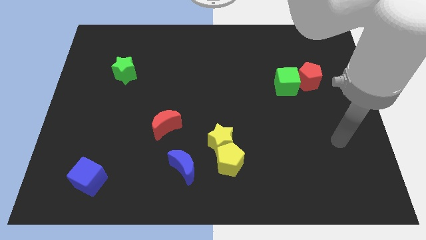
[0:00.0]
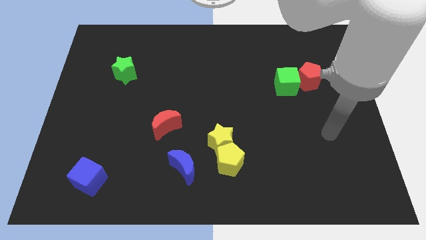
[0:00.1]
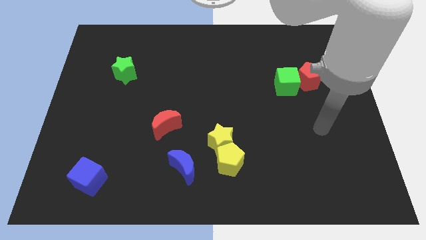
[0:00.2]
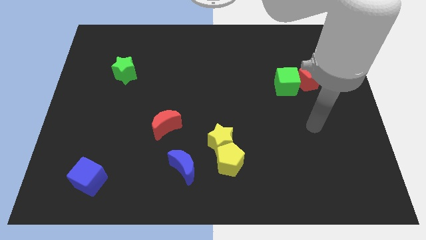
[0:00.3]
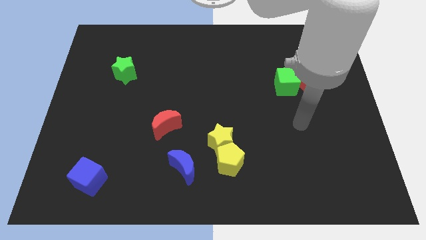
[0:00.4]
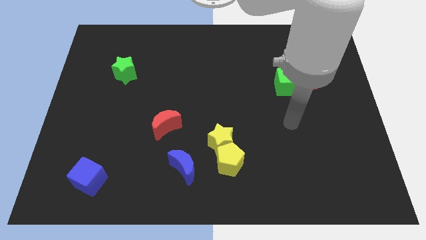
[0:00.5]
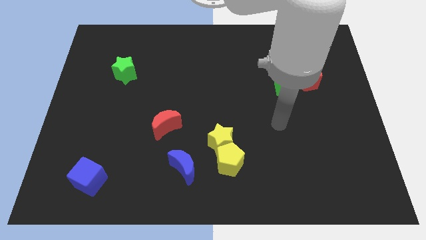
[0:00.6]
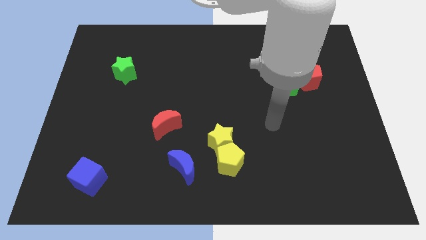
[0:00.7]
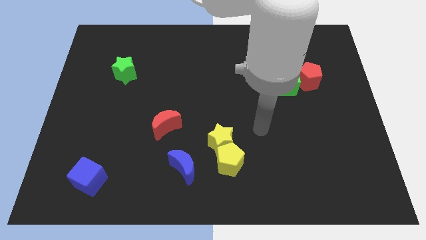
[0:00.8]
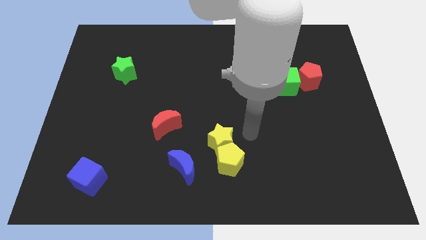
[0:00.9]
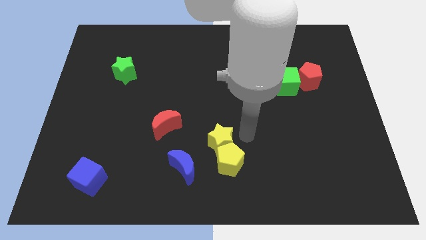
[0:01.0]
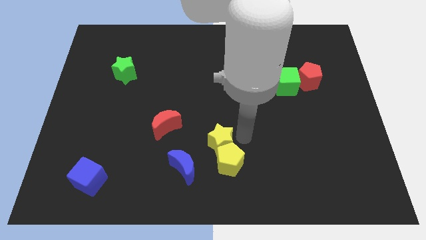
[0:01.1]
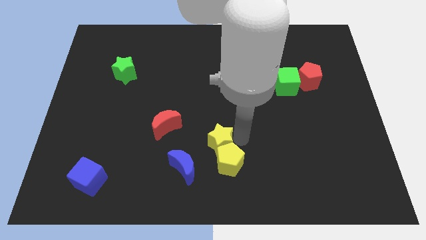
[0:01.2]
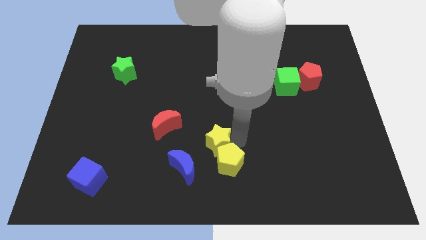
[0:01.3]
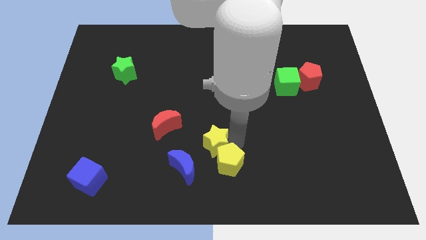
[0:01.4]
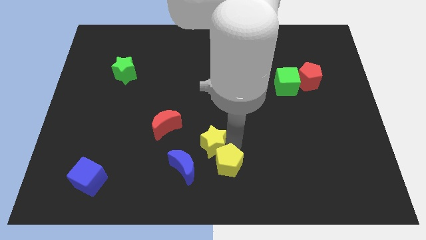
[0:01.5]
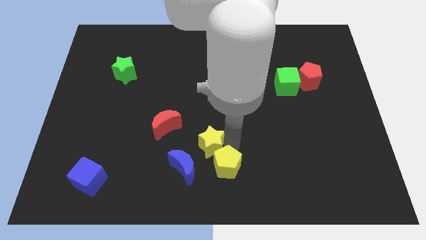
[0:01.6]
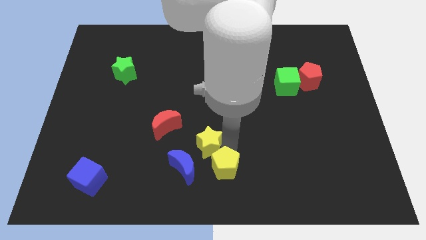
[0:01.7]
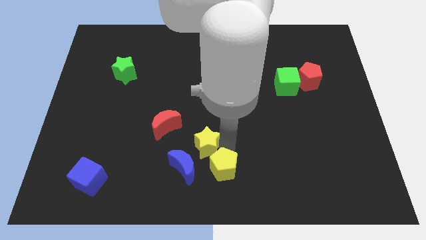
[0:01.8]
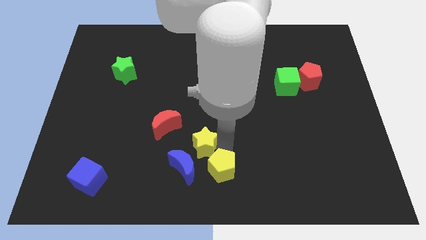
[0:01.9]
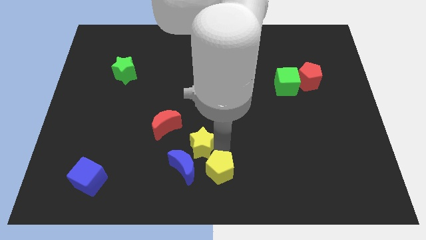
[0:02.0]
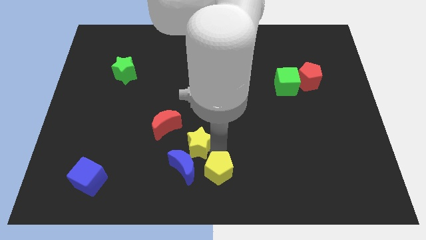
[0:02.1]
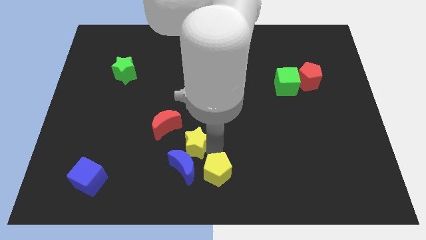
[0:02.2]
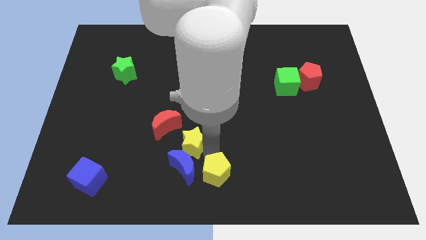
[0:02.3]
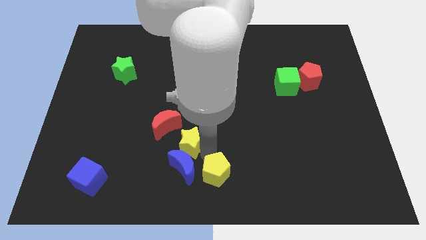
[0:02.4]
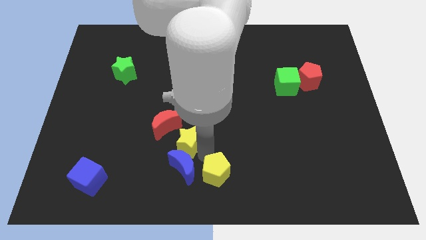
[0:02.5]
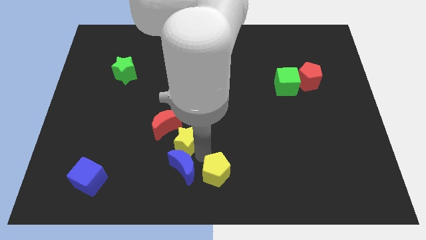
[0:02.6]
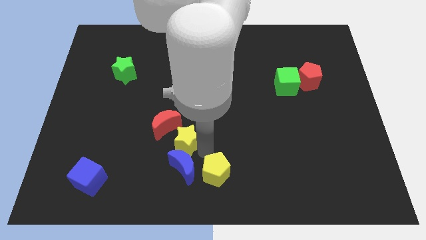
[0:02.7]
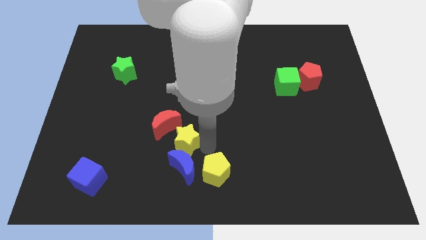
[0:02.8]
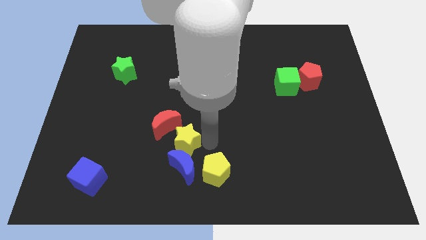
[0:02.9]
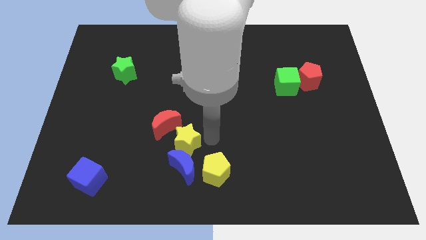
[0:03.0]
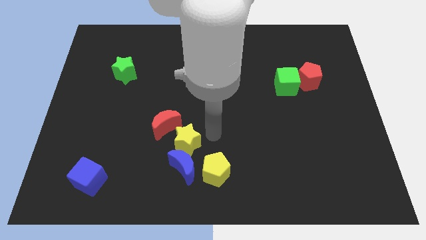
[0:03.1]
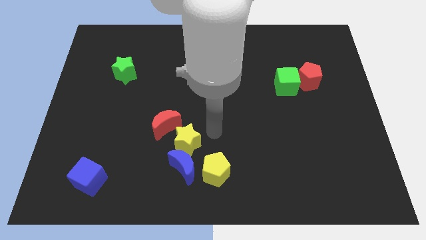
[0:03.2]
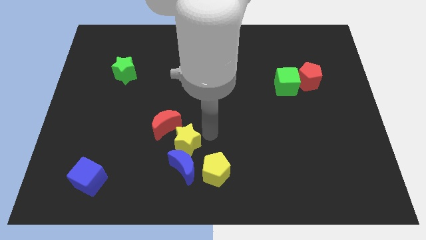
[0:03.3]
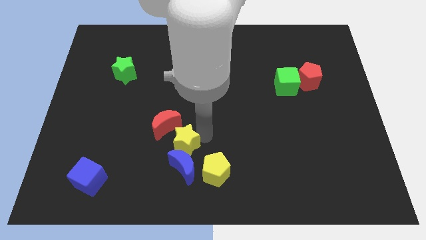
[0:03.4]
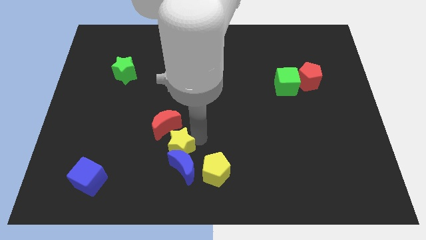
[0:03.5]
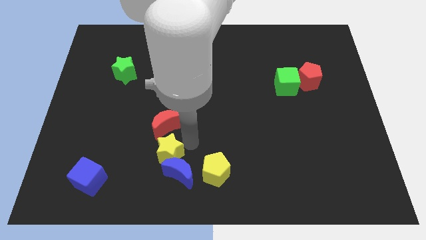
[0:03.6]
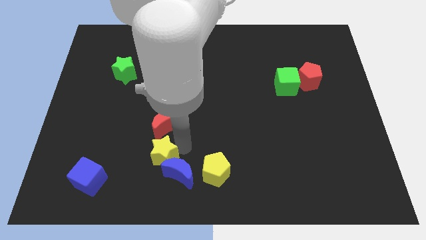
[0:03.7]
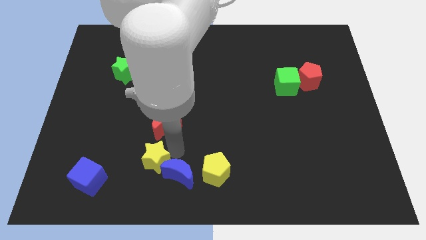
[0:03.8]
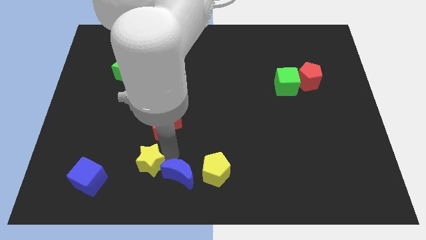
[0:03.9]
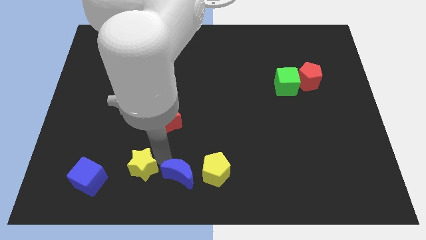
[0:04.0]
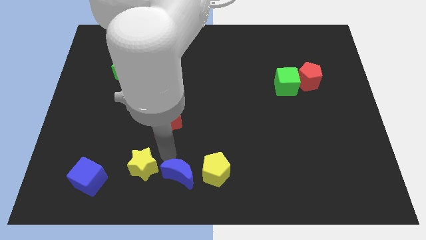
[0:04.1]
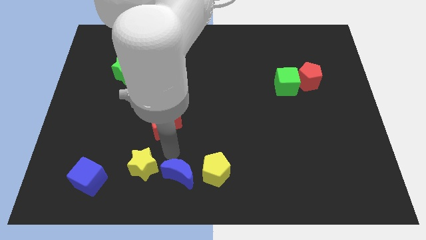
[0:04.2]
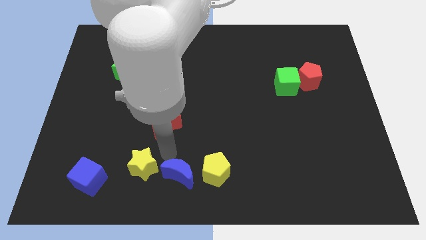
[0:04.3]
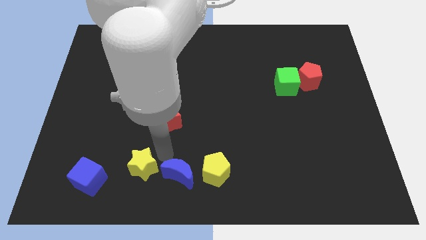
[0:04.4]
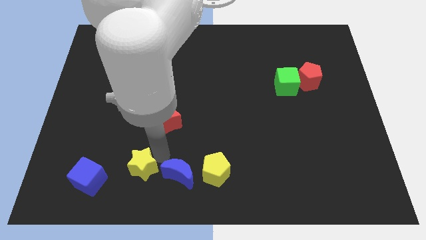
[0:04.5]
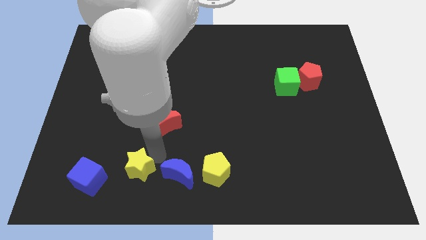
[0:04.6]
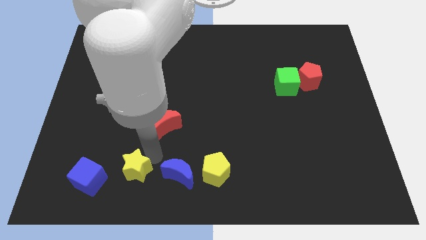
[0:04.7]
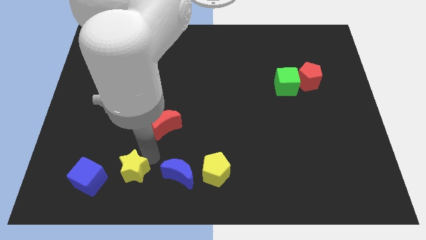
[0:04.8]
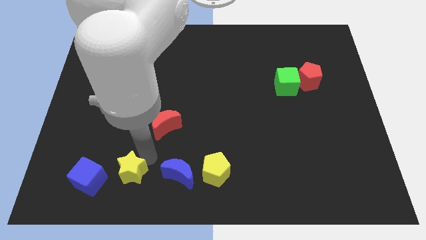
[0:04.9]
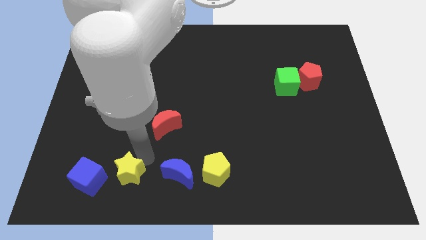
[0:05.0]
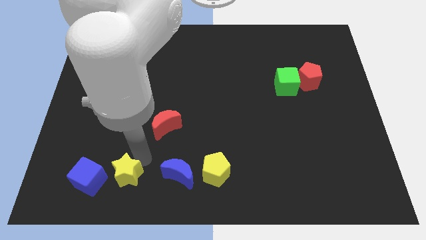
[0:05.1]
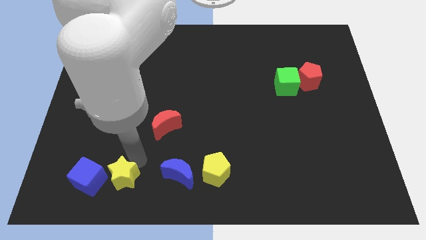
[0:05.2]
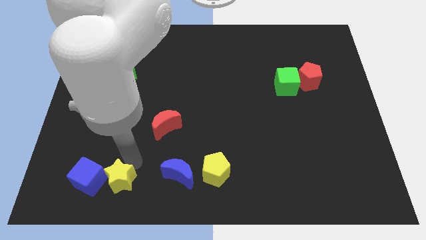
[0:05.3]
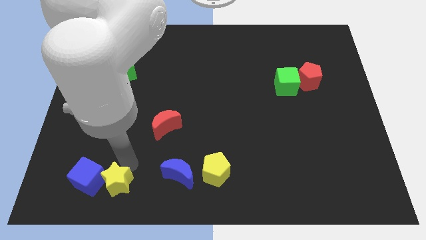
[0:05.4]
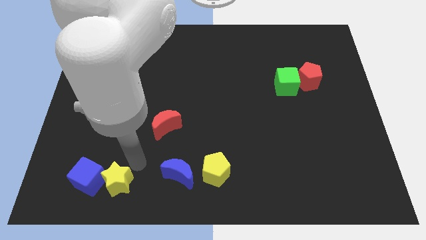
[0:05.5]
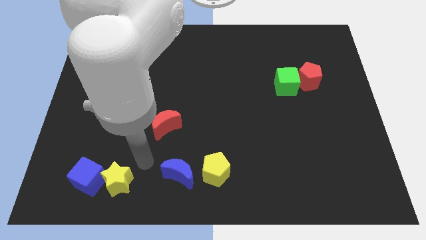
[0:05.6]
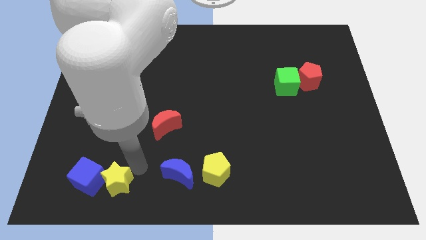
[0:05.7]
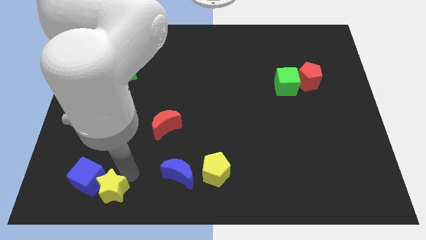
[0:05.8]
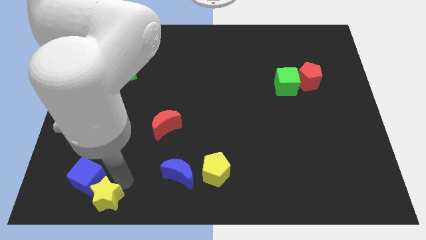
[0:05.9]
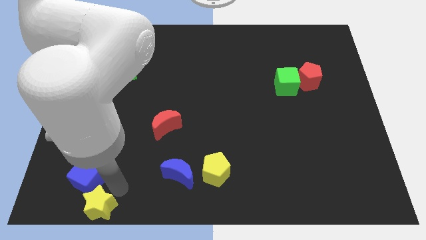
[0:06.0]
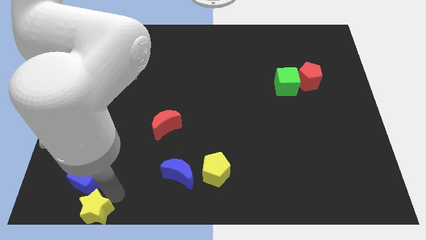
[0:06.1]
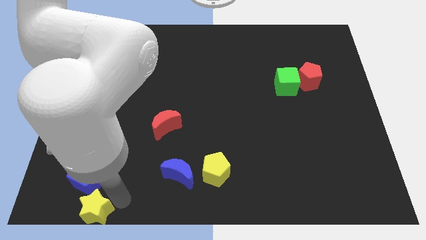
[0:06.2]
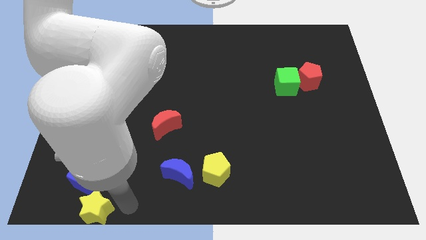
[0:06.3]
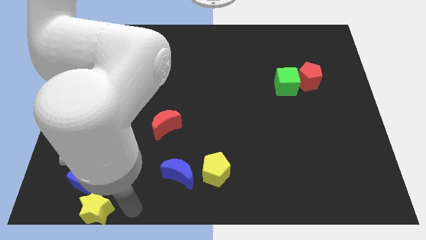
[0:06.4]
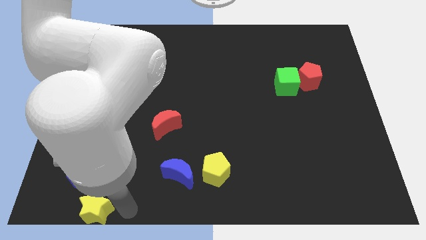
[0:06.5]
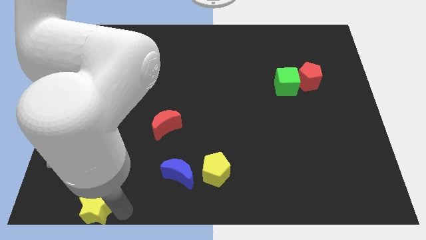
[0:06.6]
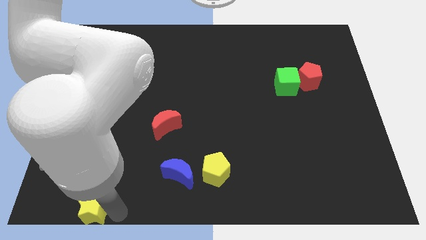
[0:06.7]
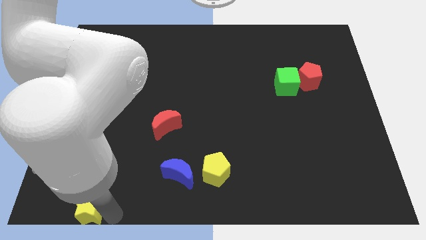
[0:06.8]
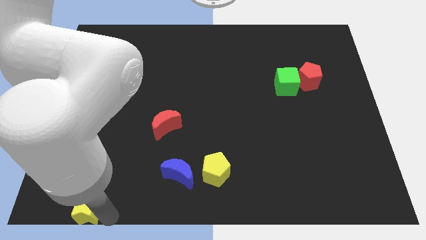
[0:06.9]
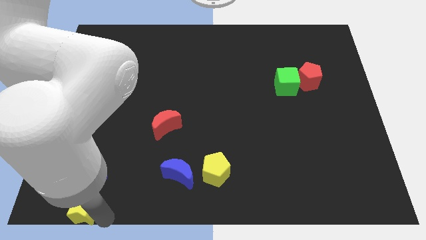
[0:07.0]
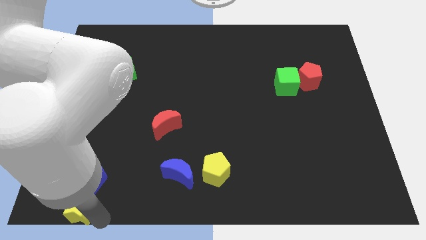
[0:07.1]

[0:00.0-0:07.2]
move the yellow star to the bottom left

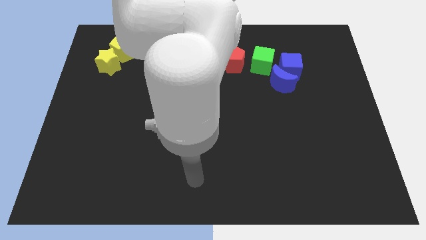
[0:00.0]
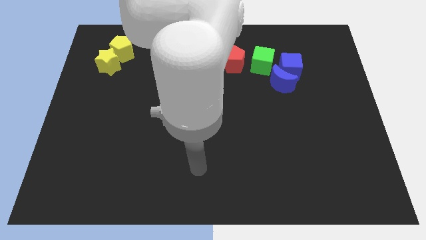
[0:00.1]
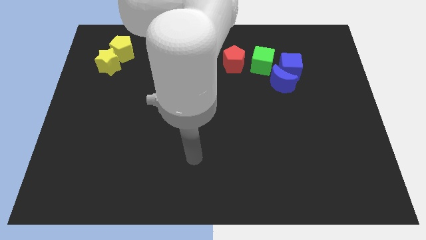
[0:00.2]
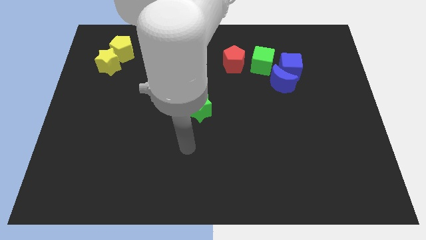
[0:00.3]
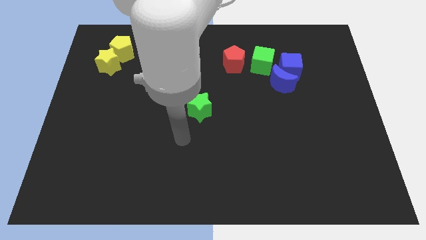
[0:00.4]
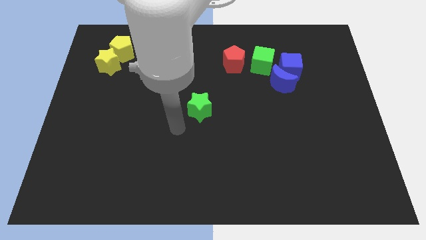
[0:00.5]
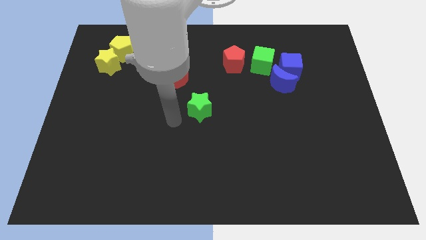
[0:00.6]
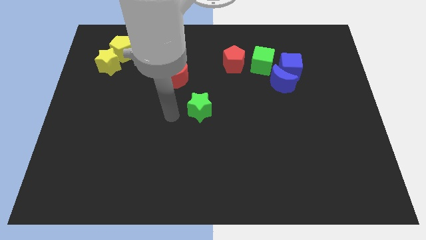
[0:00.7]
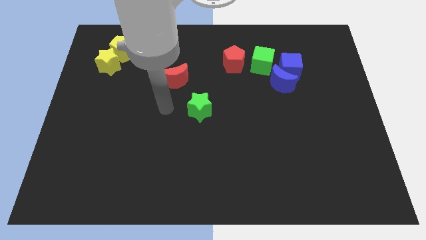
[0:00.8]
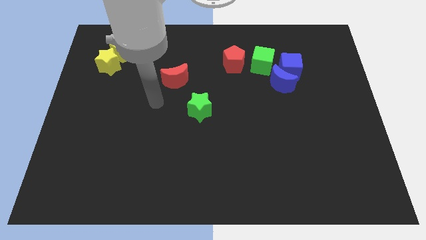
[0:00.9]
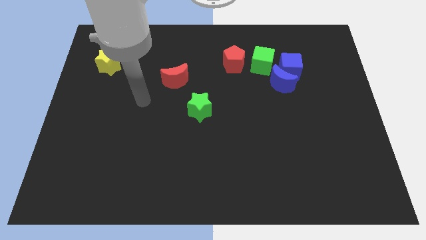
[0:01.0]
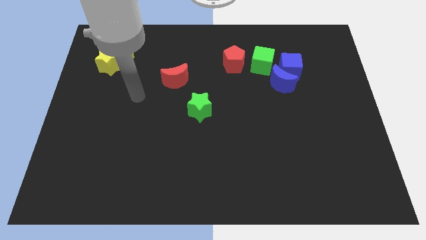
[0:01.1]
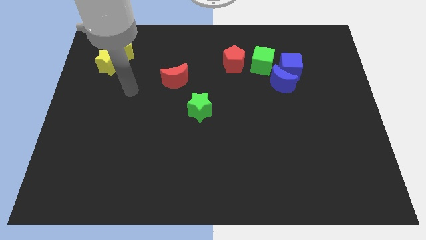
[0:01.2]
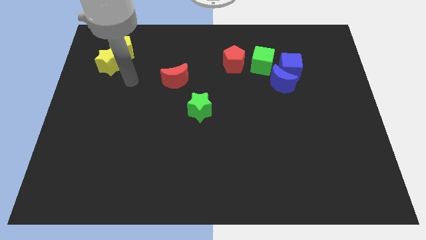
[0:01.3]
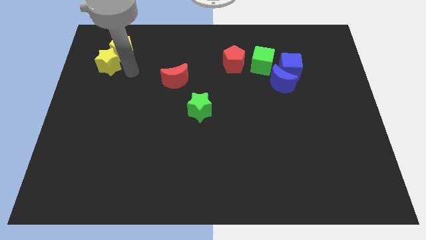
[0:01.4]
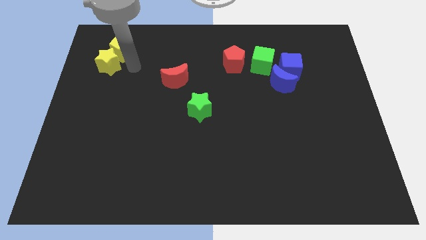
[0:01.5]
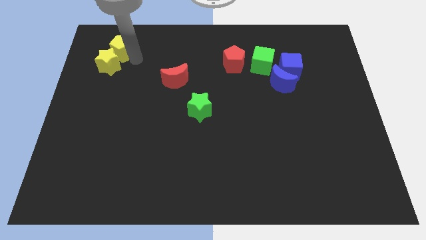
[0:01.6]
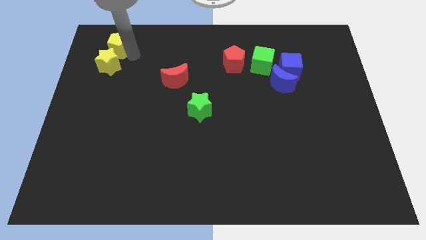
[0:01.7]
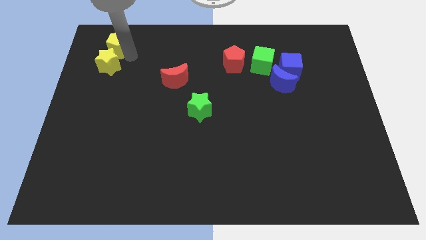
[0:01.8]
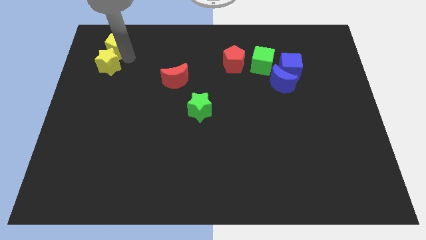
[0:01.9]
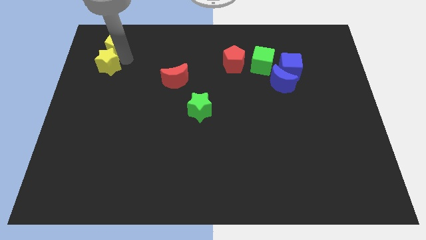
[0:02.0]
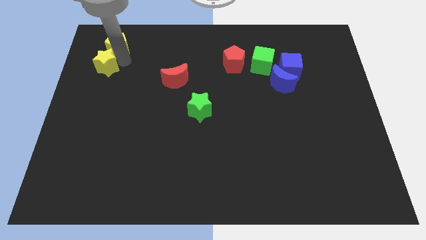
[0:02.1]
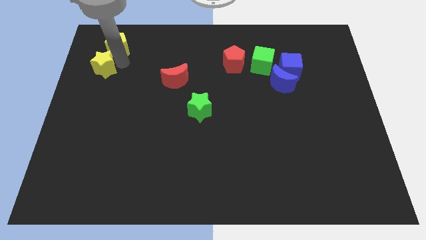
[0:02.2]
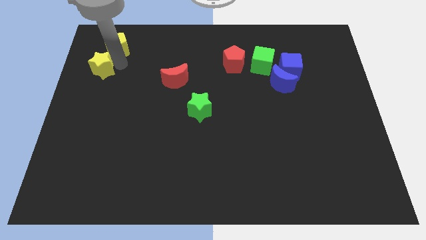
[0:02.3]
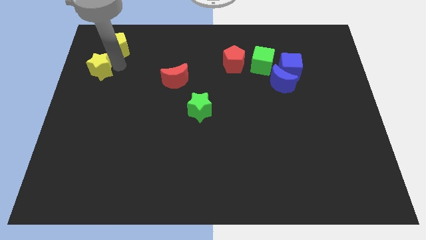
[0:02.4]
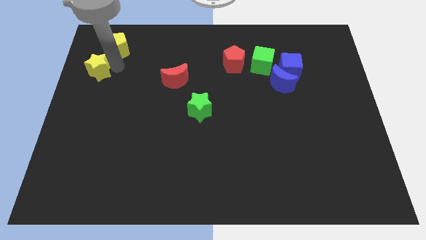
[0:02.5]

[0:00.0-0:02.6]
push the yellow star to the left side
